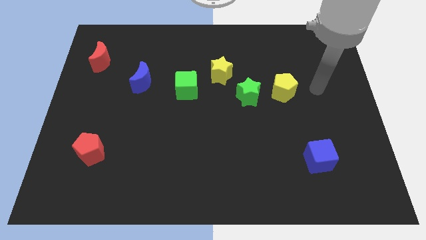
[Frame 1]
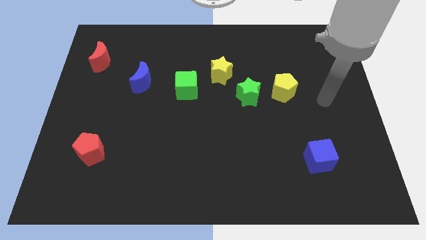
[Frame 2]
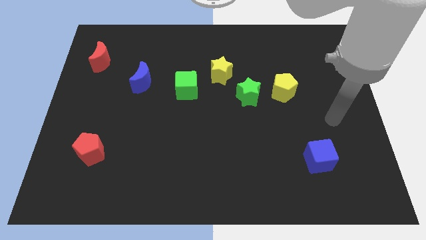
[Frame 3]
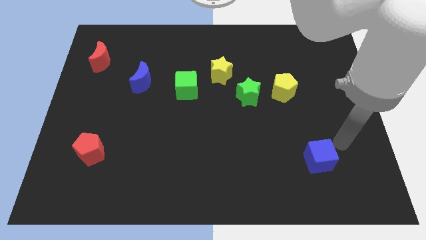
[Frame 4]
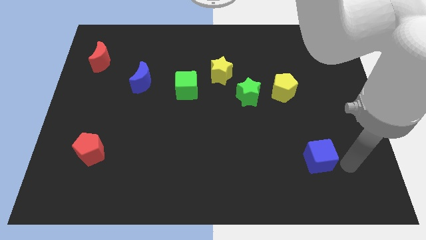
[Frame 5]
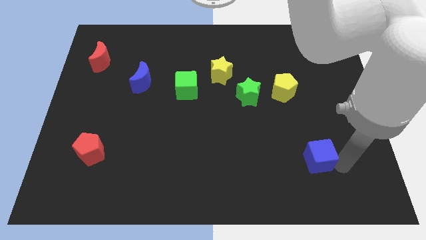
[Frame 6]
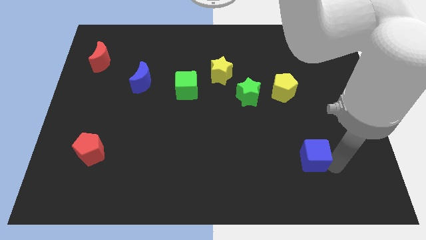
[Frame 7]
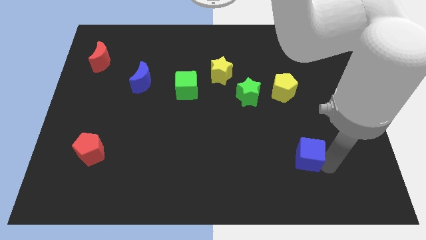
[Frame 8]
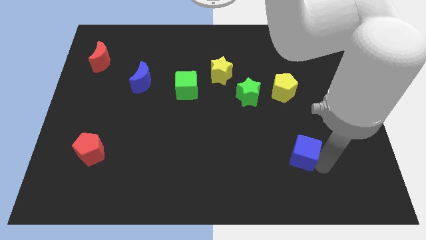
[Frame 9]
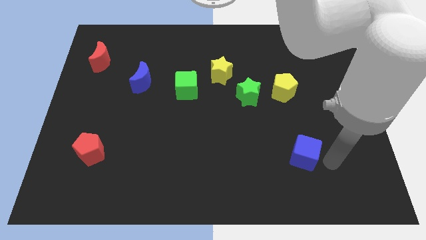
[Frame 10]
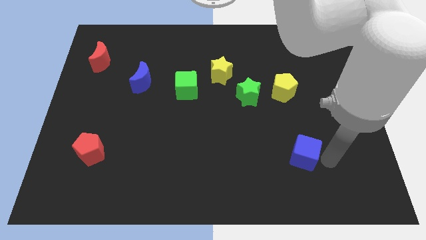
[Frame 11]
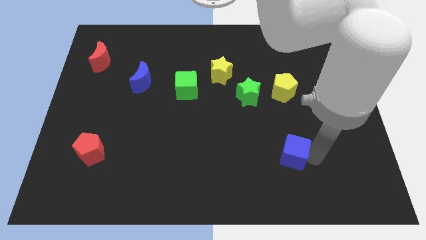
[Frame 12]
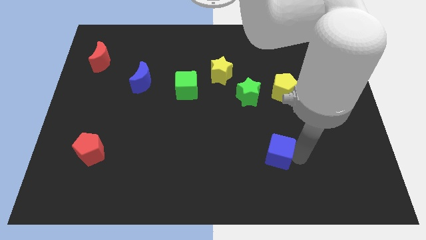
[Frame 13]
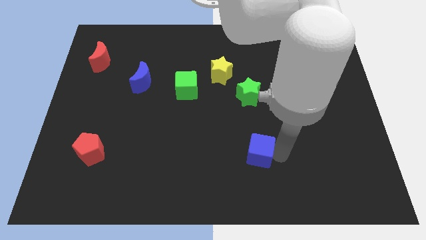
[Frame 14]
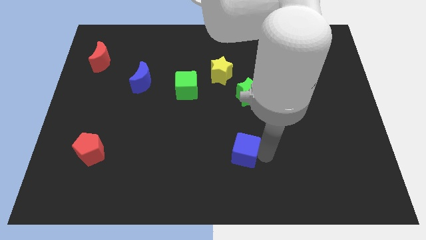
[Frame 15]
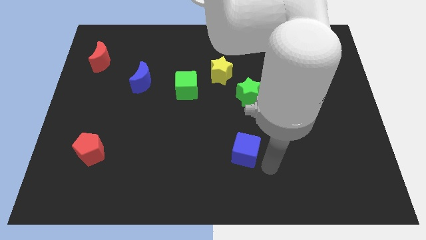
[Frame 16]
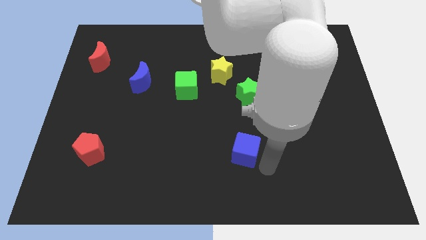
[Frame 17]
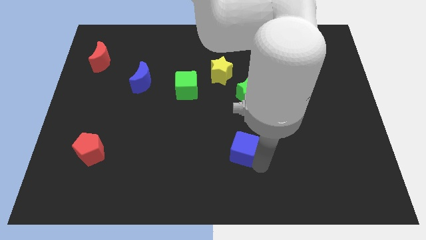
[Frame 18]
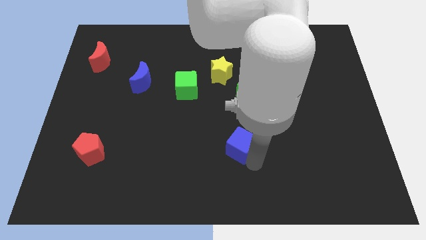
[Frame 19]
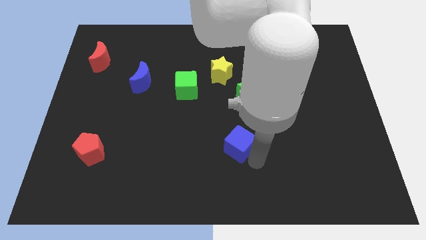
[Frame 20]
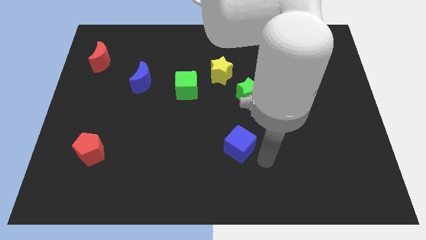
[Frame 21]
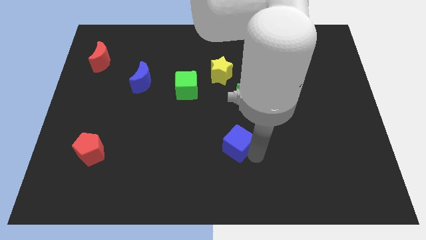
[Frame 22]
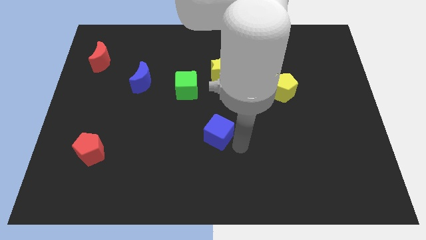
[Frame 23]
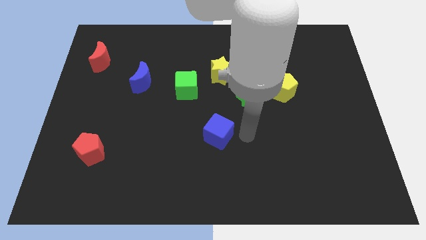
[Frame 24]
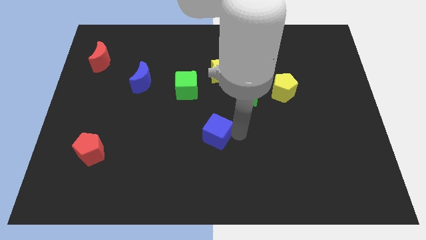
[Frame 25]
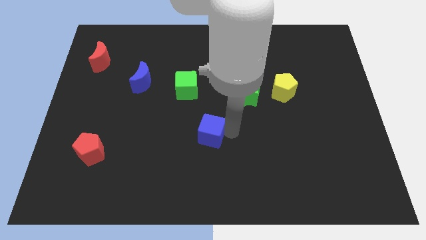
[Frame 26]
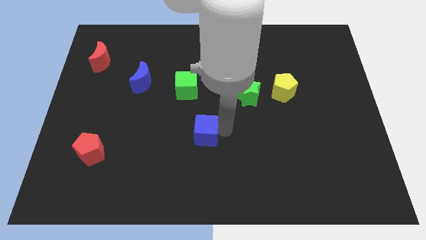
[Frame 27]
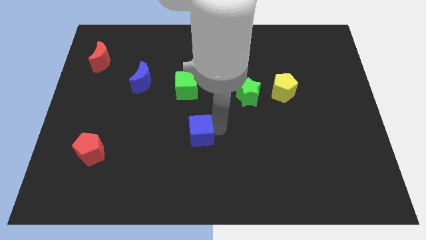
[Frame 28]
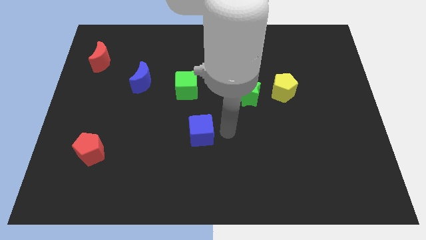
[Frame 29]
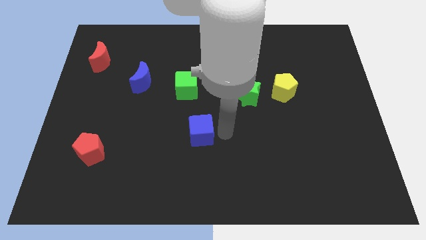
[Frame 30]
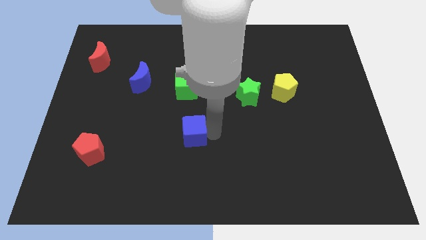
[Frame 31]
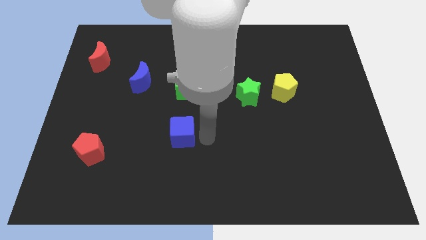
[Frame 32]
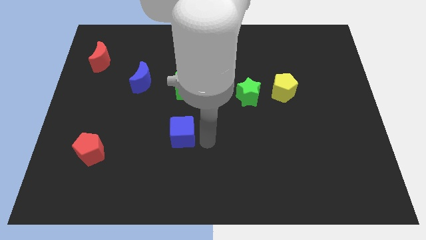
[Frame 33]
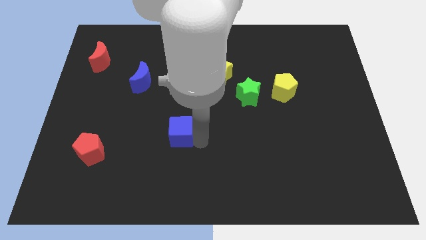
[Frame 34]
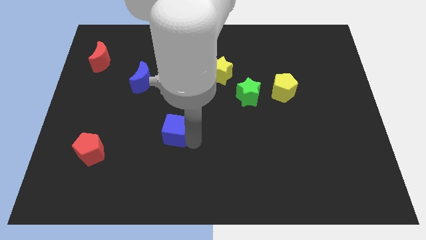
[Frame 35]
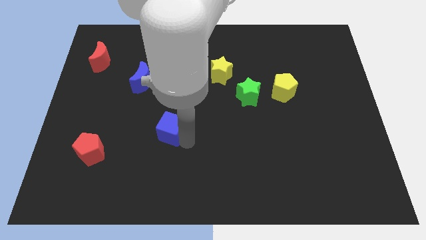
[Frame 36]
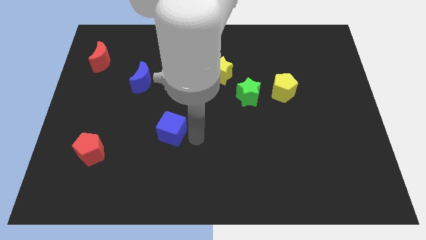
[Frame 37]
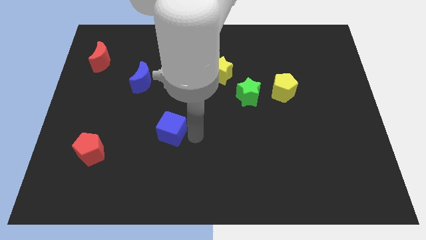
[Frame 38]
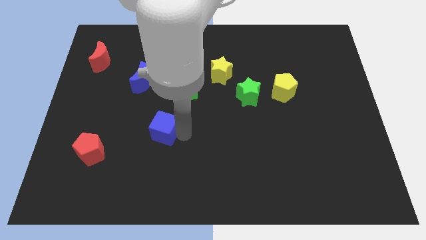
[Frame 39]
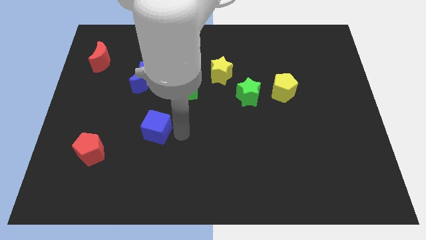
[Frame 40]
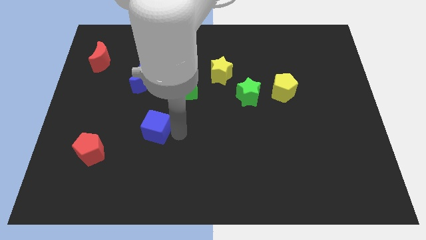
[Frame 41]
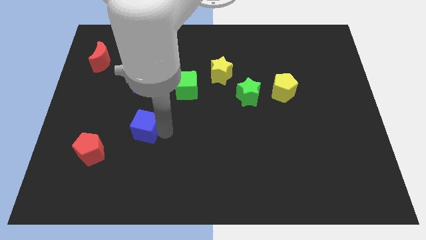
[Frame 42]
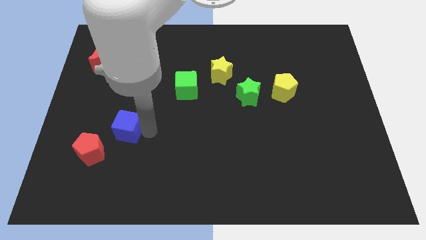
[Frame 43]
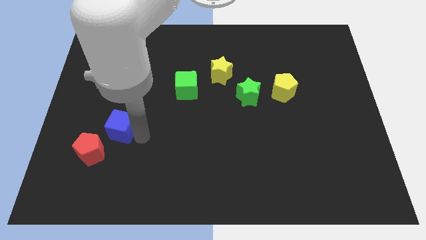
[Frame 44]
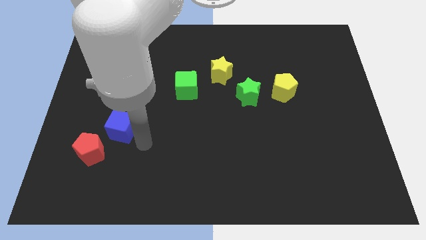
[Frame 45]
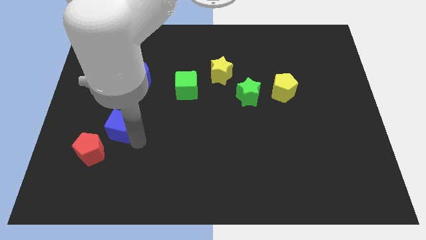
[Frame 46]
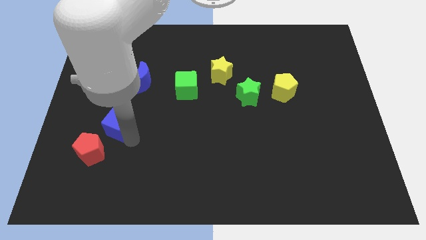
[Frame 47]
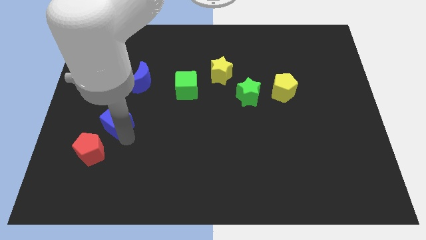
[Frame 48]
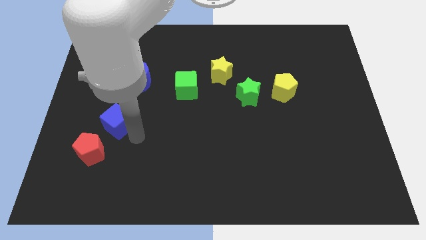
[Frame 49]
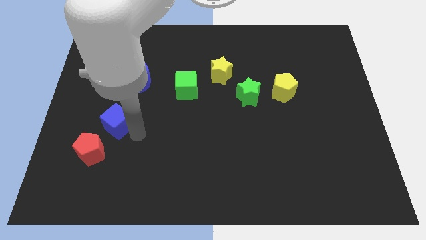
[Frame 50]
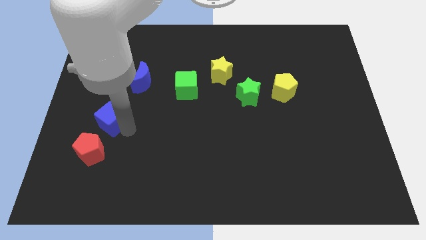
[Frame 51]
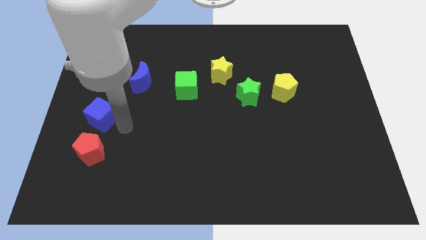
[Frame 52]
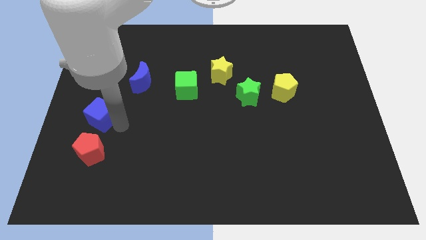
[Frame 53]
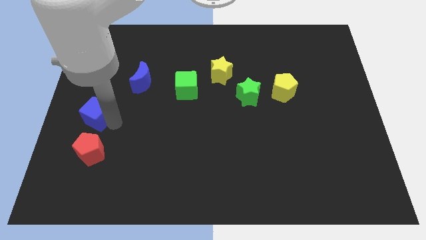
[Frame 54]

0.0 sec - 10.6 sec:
push the blue cube to the left side

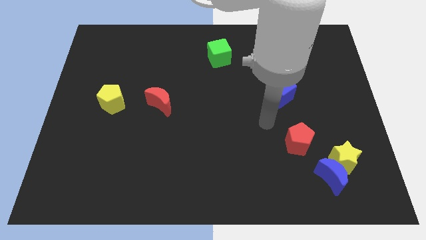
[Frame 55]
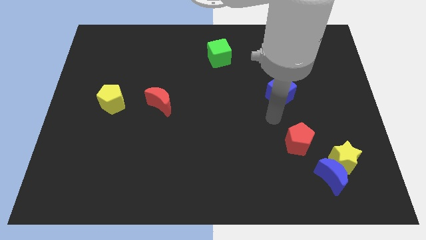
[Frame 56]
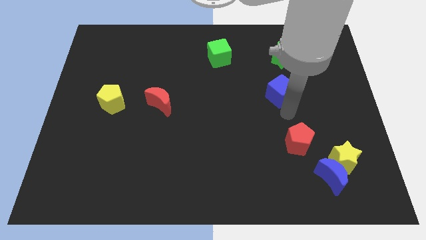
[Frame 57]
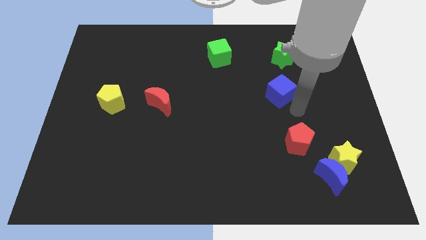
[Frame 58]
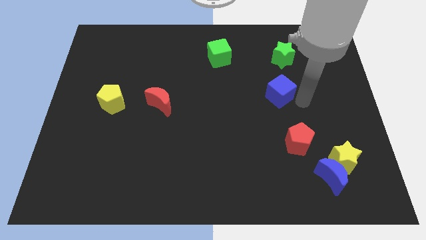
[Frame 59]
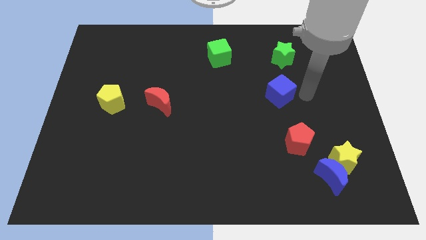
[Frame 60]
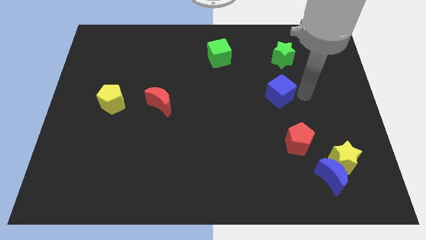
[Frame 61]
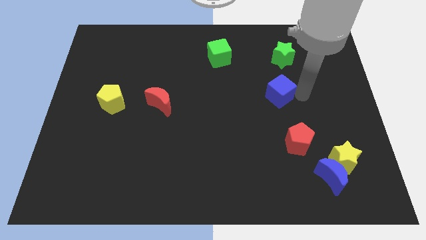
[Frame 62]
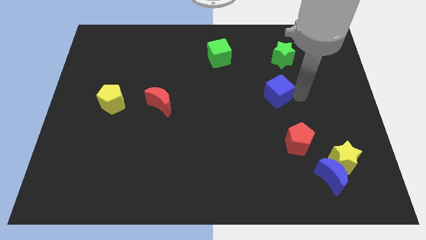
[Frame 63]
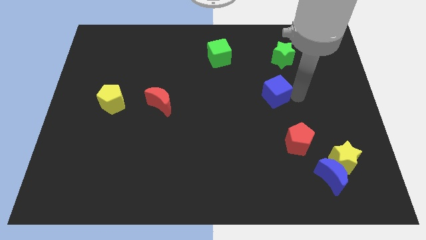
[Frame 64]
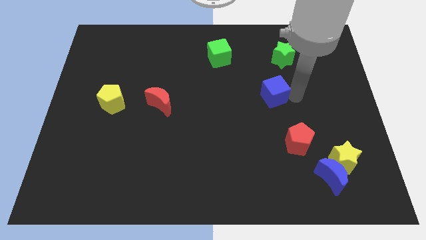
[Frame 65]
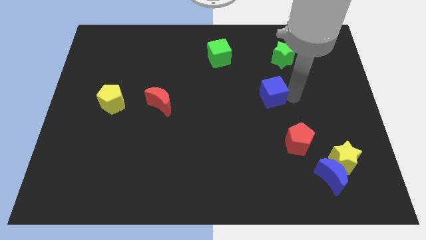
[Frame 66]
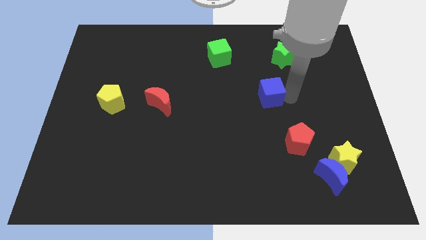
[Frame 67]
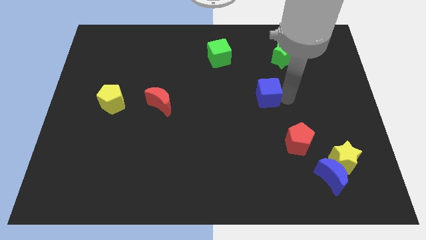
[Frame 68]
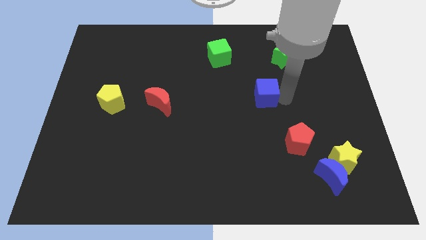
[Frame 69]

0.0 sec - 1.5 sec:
put the blue cube to the middle of the board
